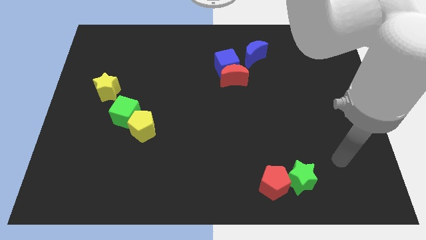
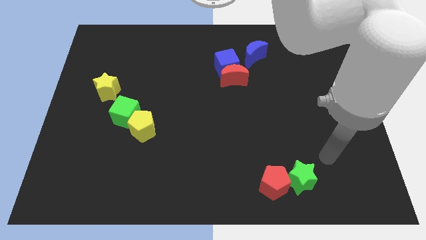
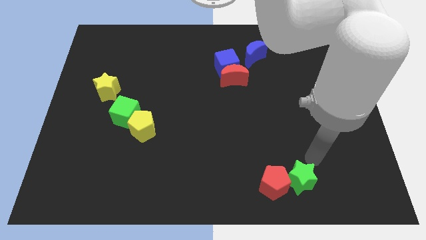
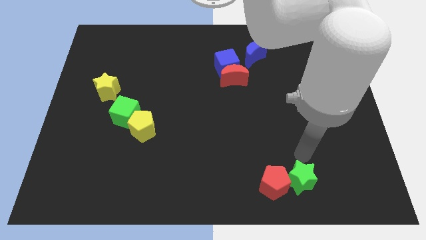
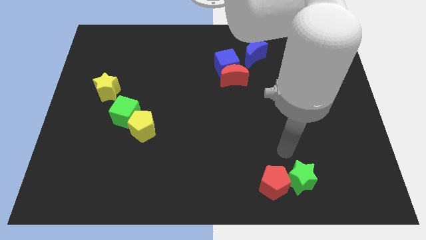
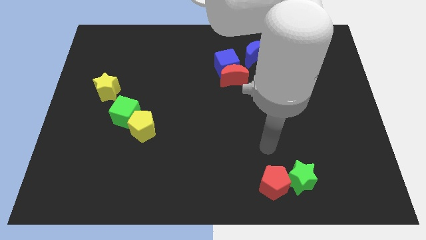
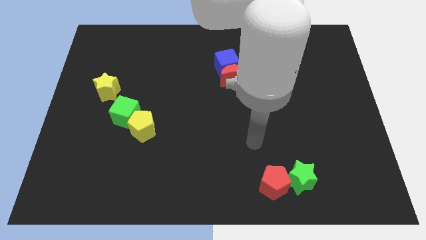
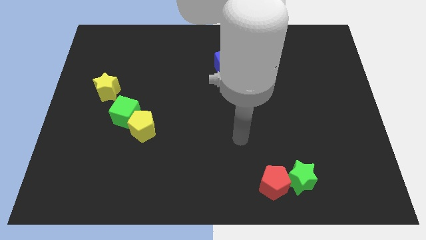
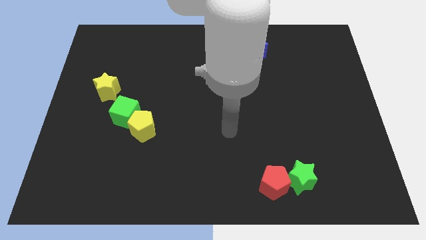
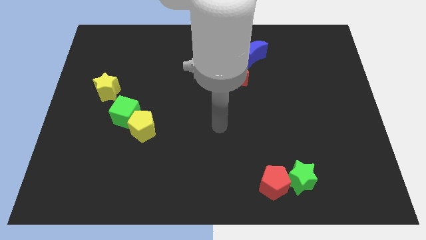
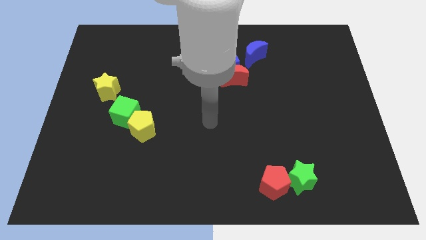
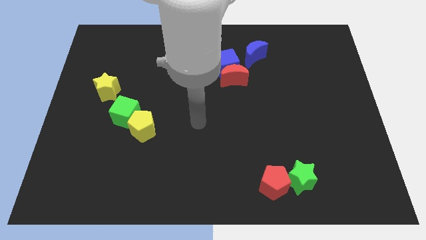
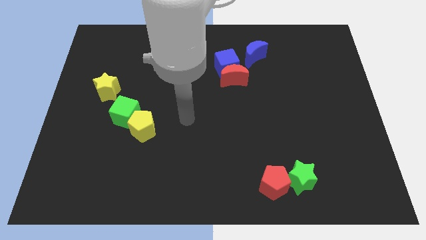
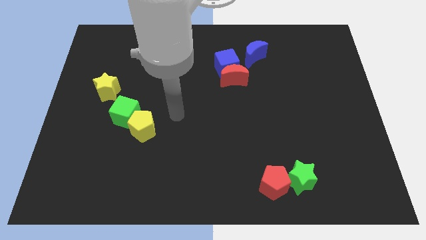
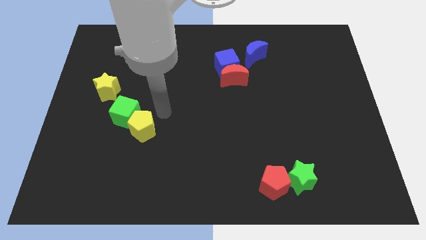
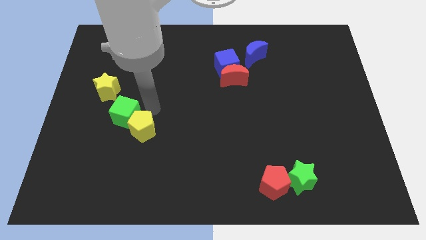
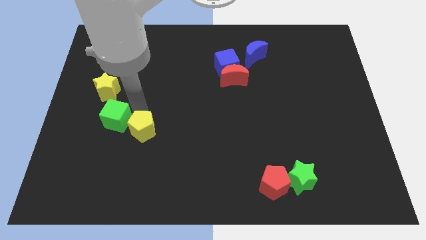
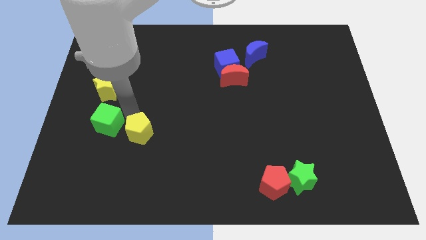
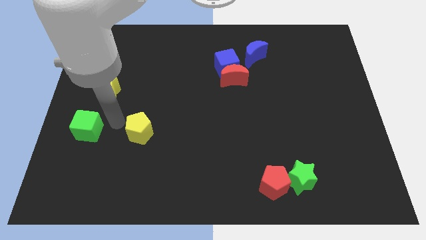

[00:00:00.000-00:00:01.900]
move the yellow pentagon away from the green cube

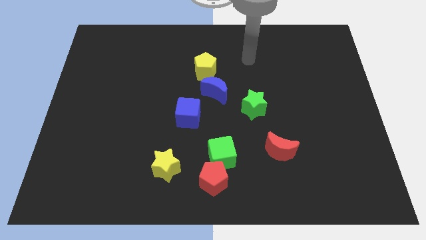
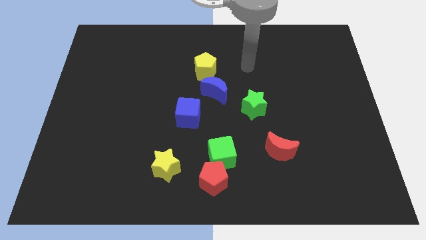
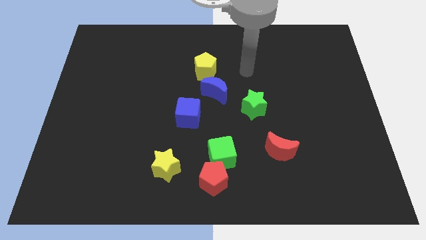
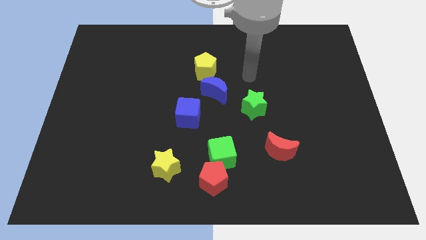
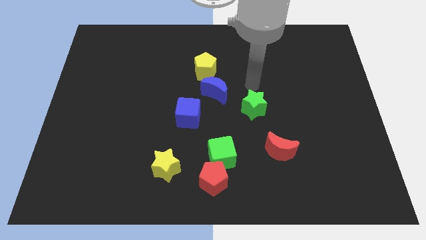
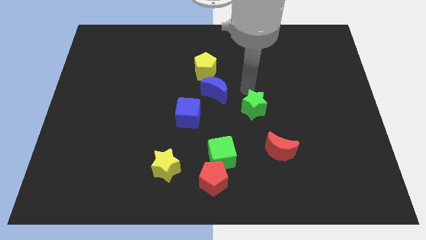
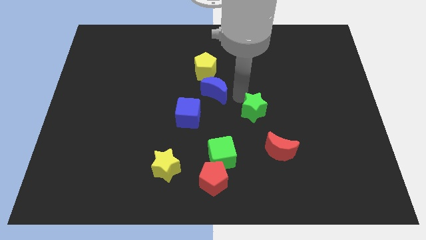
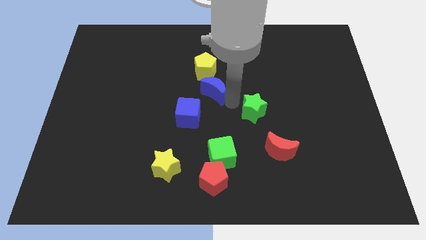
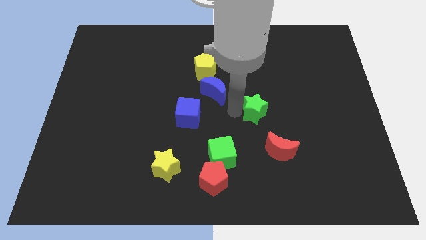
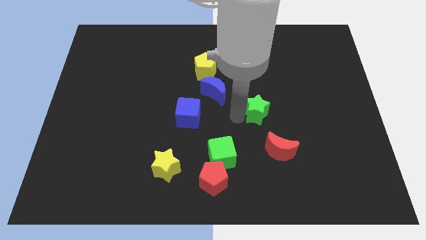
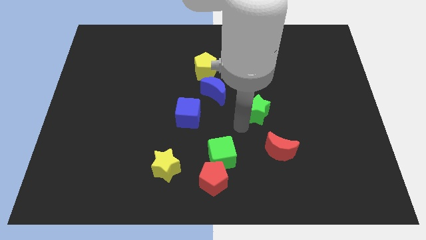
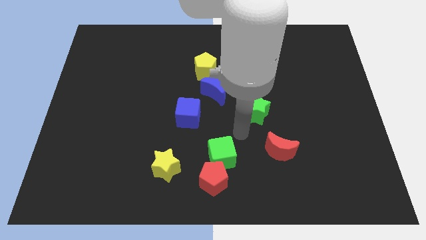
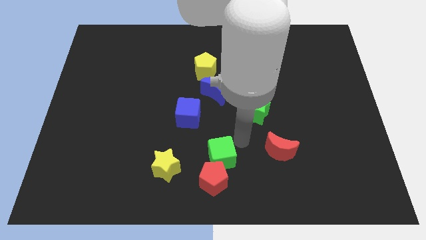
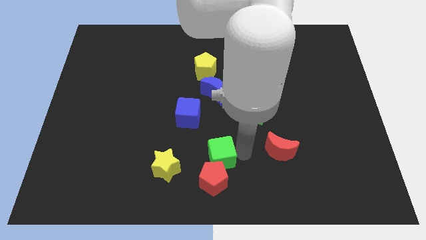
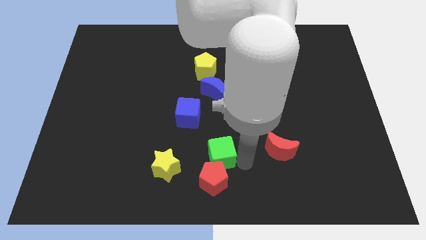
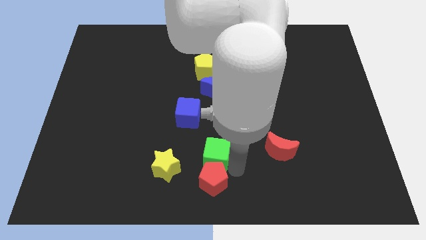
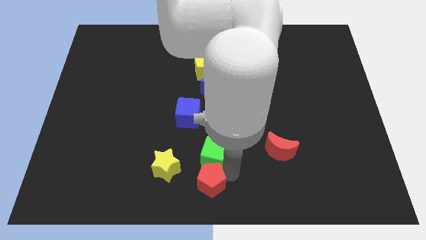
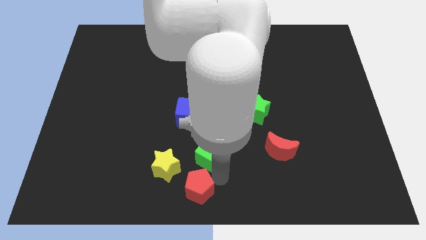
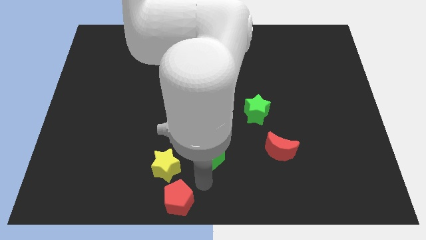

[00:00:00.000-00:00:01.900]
move the green cube away from the red pentagon

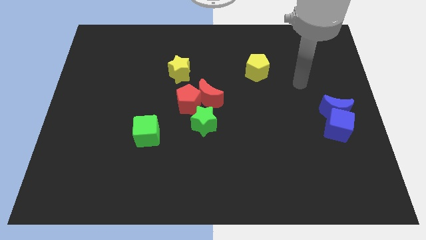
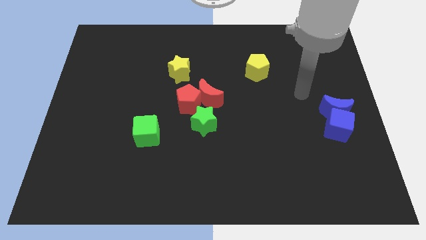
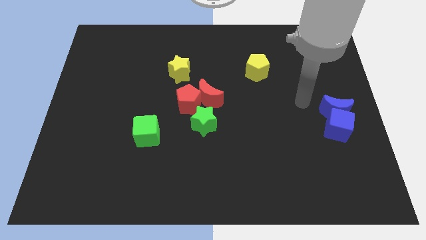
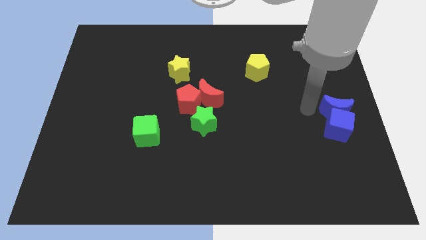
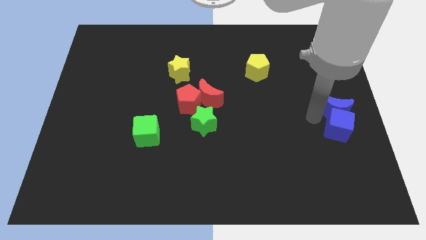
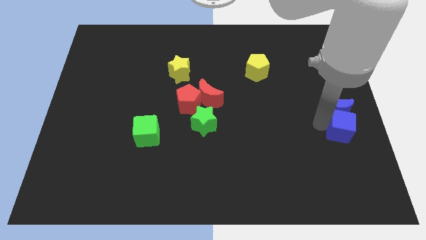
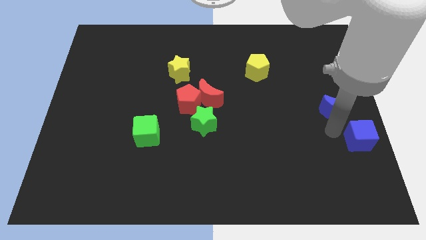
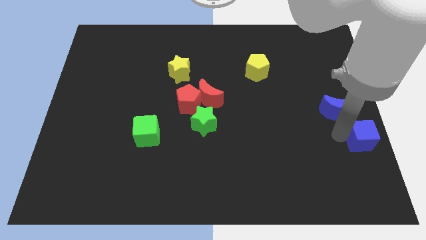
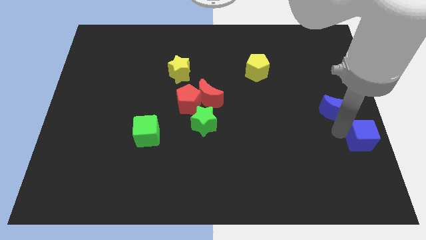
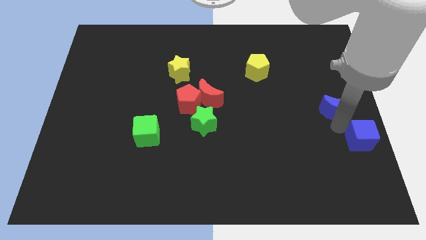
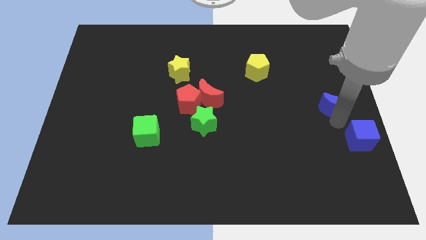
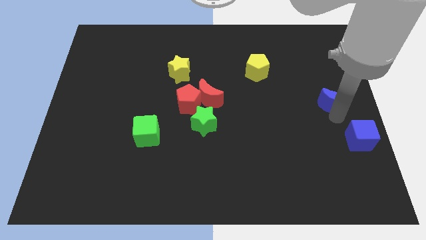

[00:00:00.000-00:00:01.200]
separate the blue moon from the blue cube

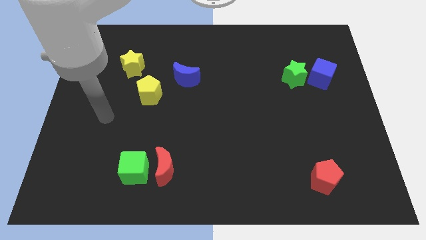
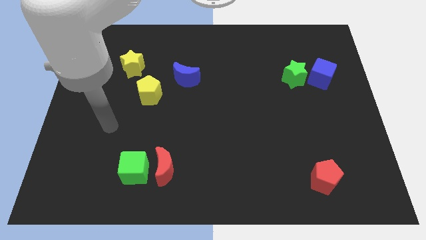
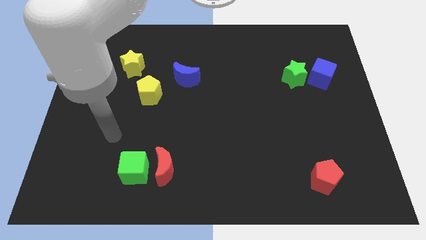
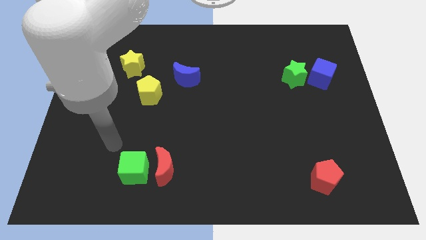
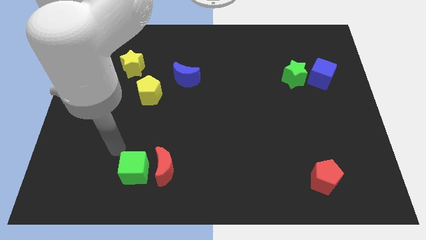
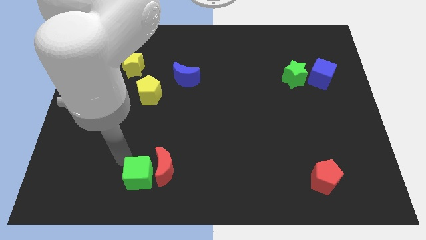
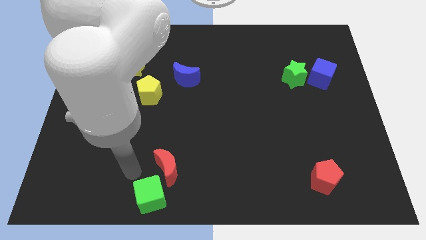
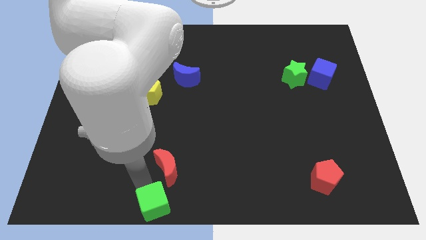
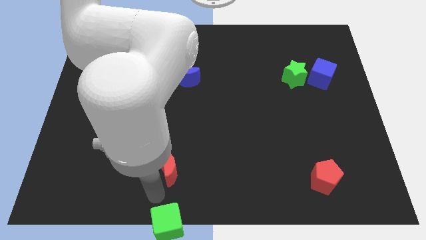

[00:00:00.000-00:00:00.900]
pull the red moon apart from the green cube

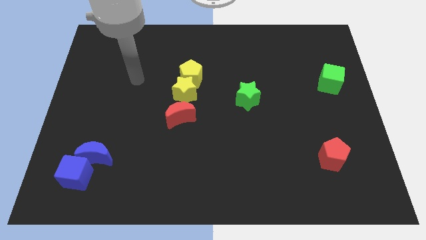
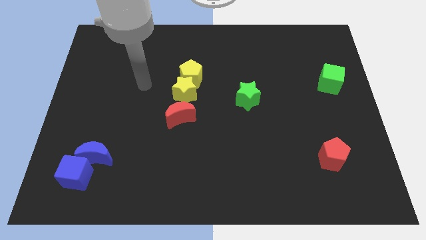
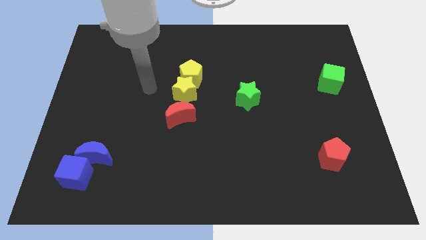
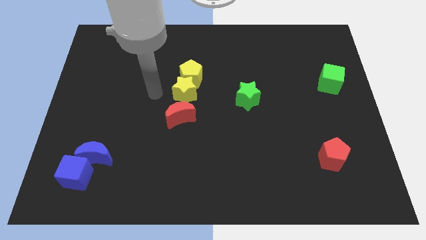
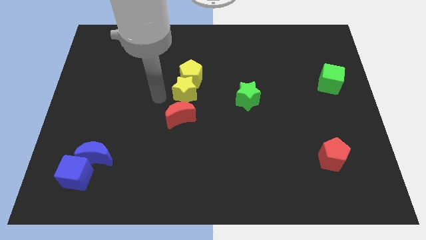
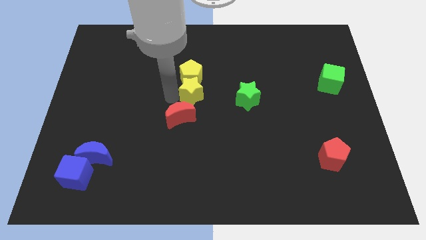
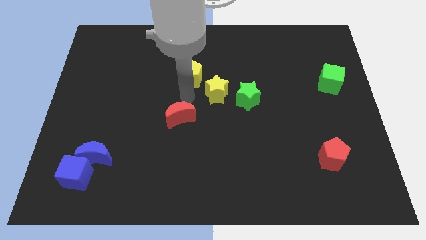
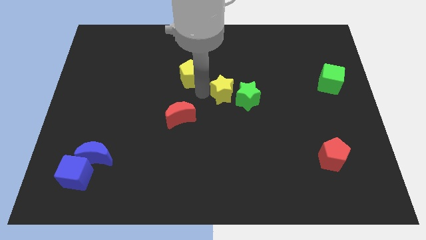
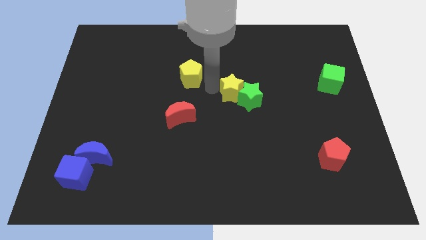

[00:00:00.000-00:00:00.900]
move the yellow pentagon away from the yellow star

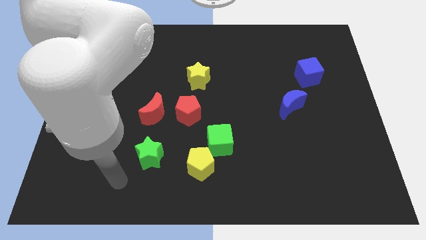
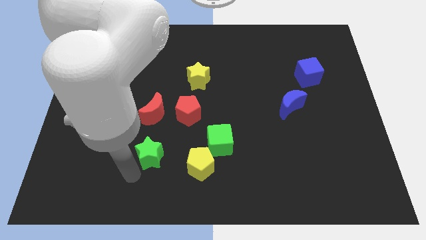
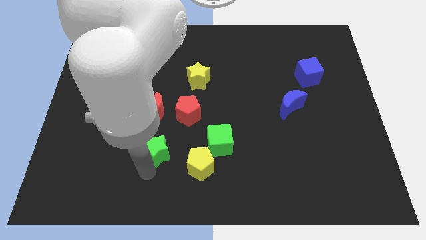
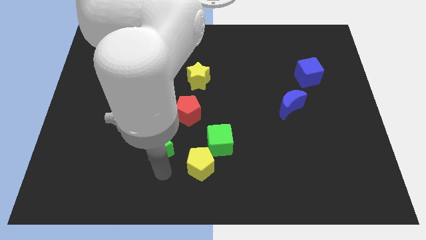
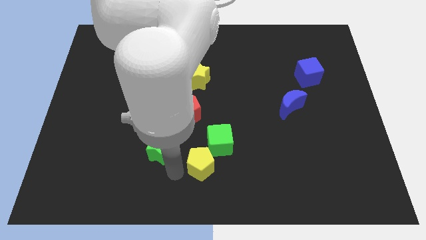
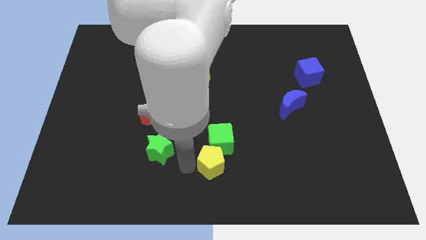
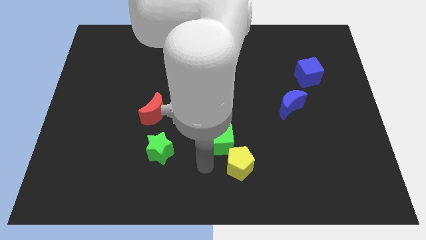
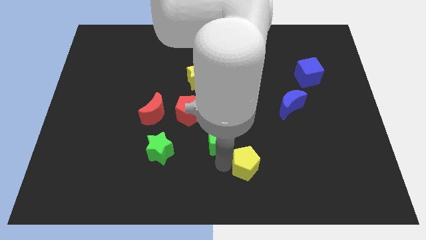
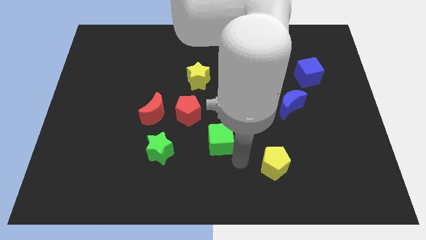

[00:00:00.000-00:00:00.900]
pull the green cube apart from the yellow pentagon

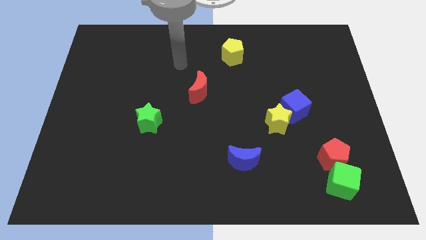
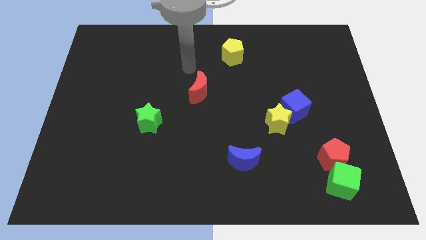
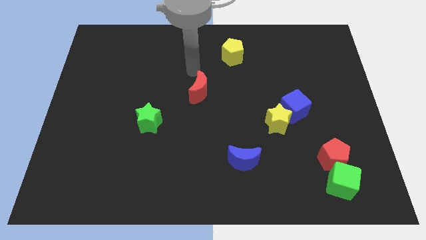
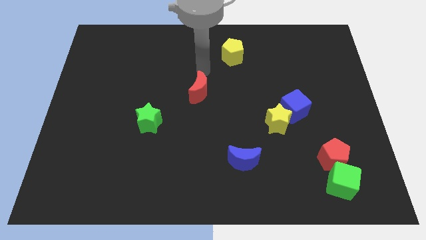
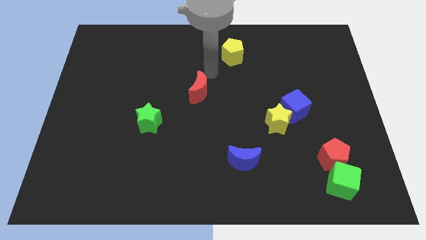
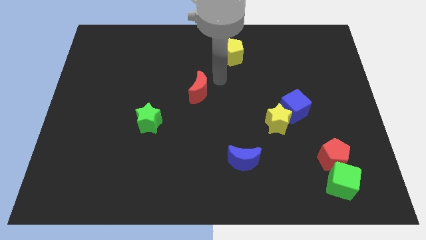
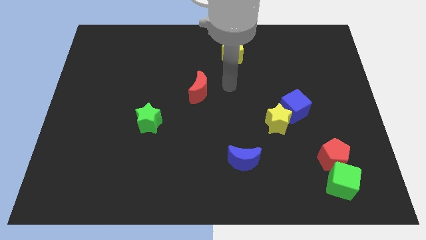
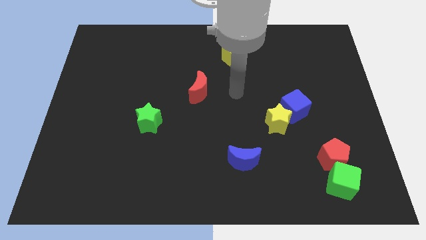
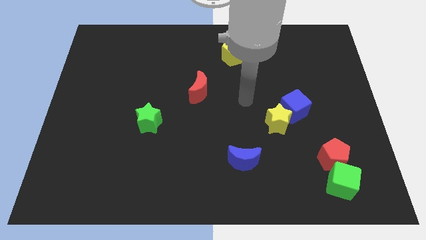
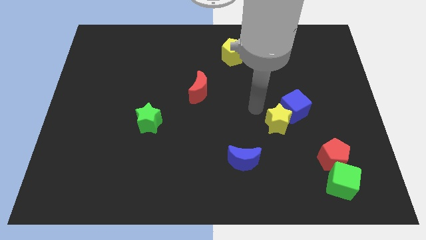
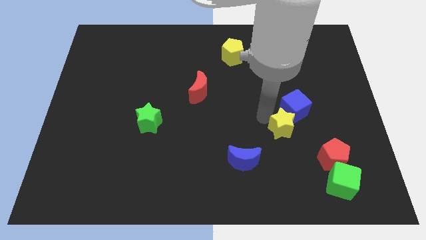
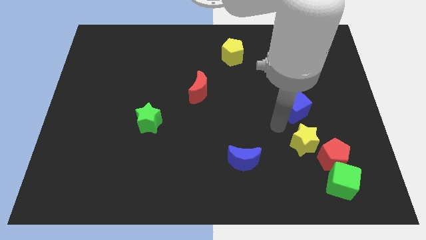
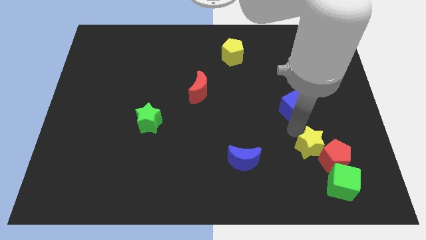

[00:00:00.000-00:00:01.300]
separate the blue cube from the yellow star

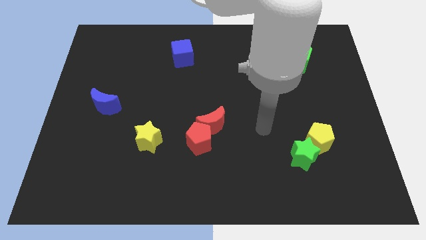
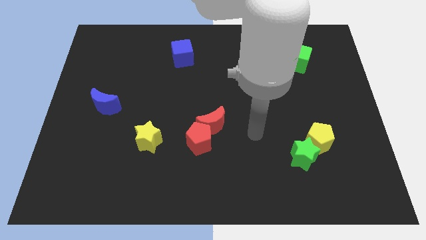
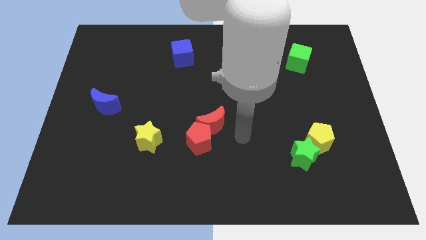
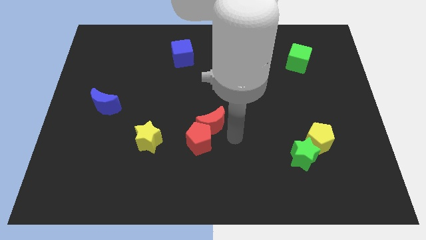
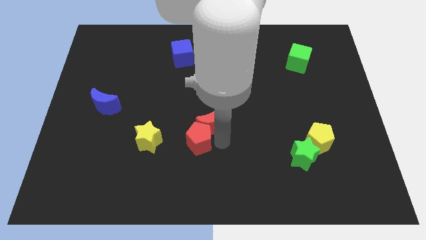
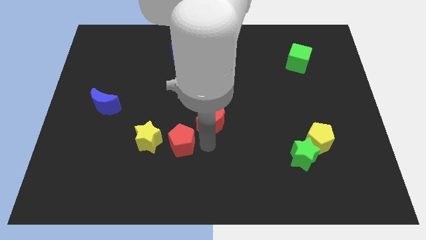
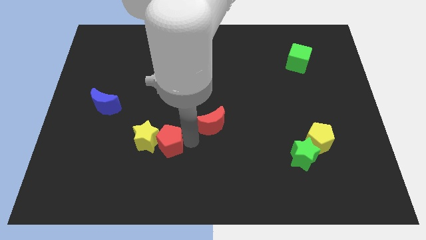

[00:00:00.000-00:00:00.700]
pull the red moon apart from the red pentagon
